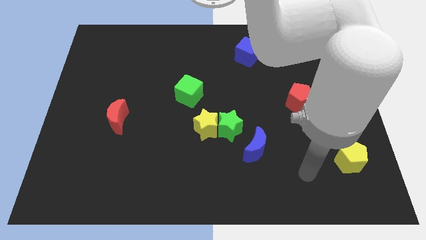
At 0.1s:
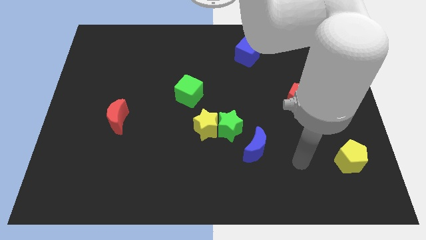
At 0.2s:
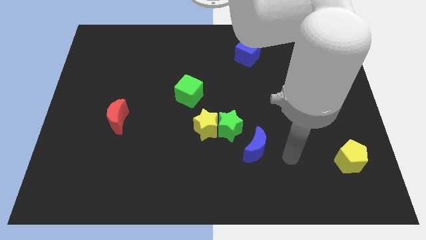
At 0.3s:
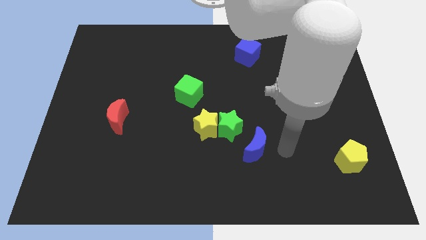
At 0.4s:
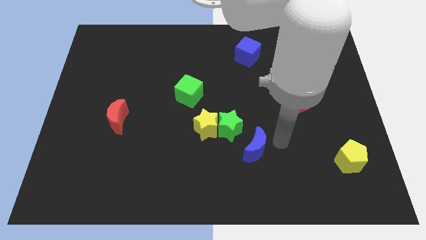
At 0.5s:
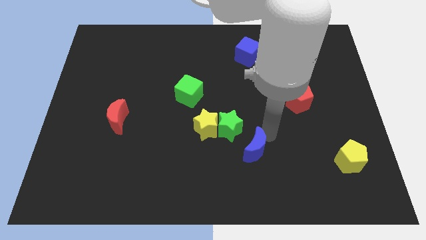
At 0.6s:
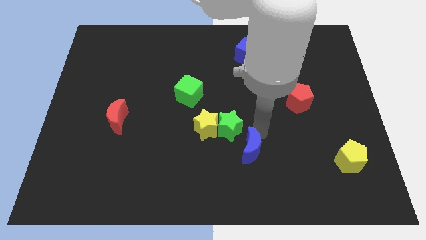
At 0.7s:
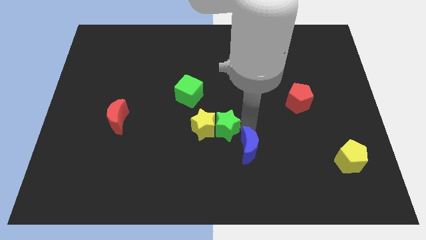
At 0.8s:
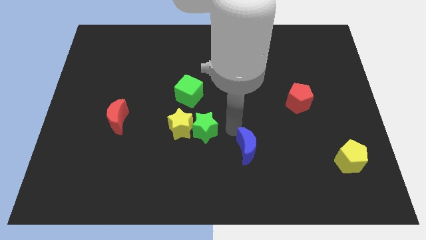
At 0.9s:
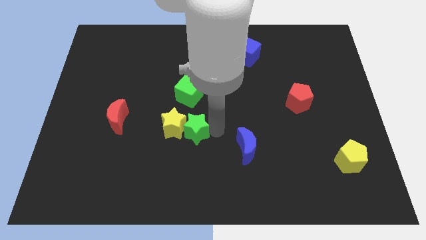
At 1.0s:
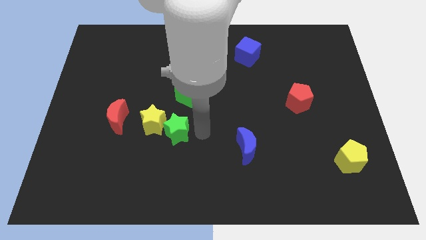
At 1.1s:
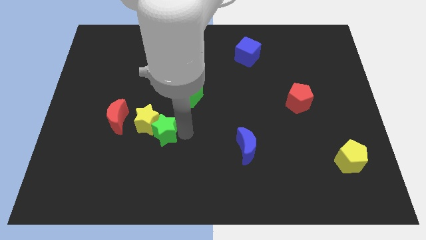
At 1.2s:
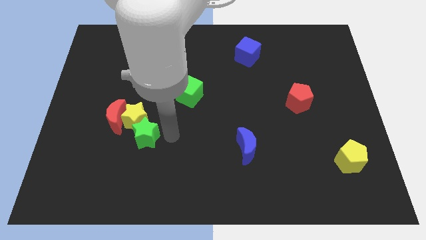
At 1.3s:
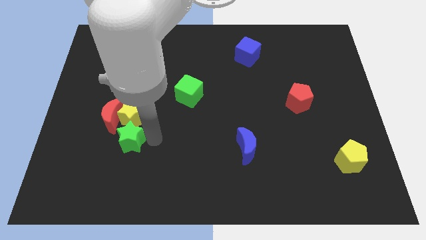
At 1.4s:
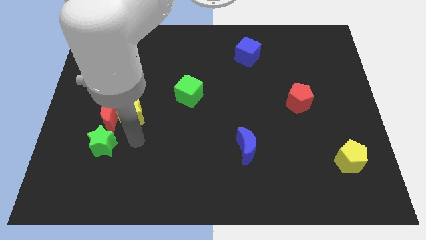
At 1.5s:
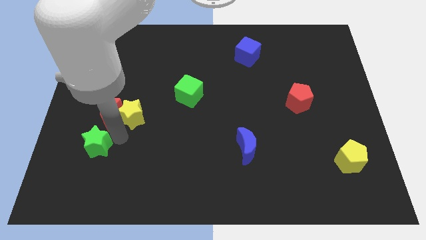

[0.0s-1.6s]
move the yellow star away from the green star

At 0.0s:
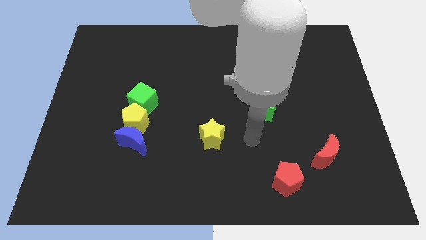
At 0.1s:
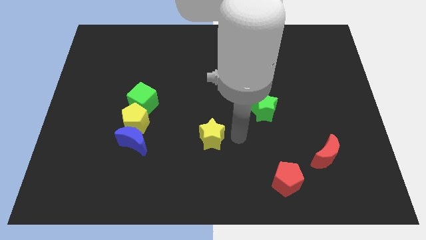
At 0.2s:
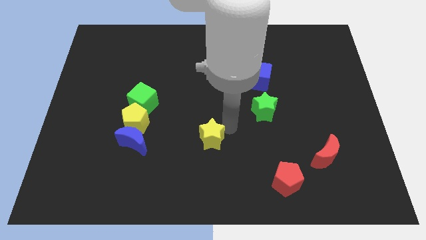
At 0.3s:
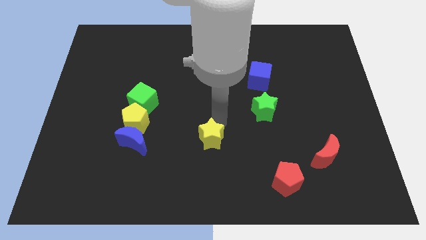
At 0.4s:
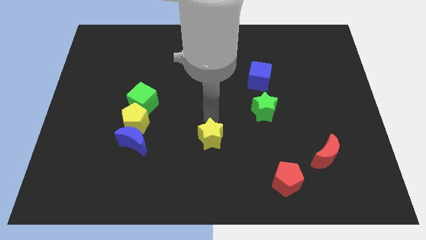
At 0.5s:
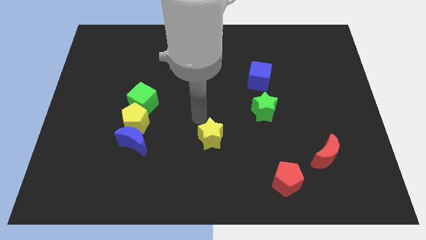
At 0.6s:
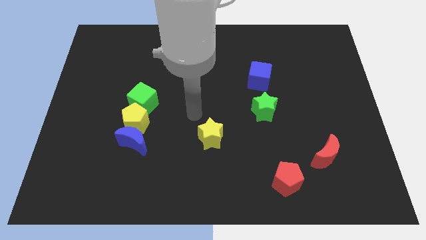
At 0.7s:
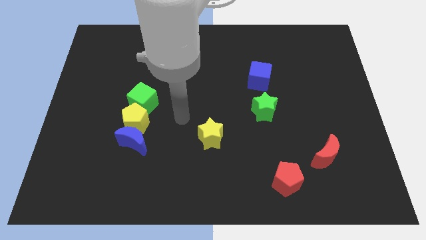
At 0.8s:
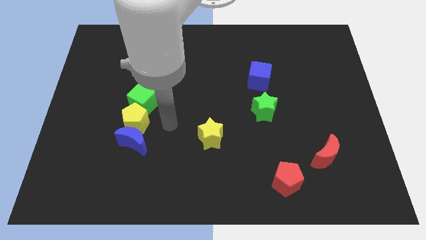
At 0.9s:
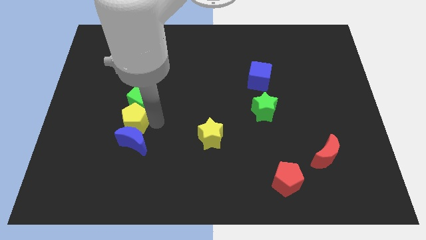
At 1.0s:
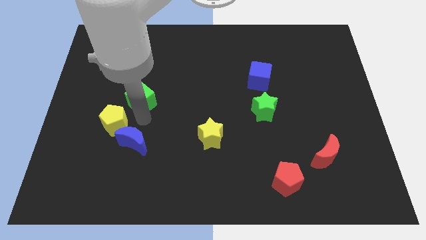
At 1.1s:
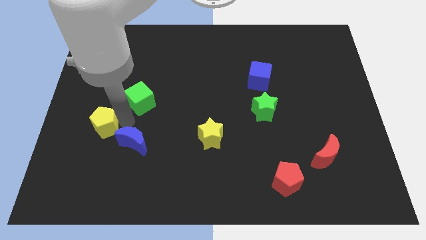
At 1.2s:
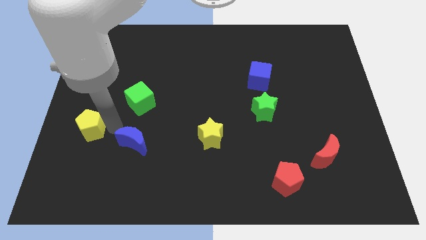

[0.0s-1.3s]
move the blue moon away from the yellow pentagon

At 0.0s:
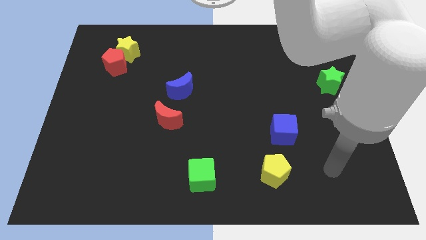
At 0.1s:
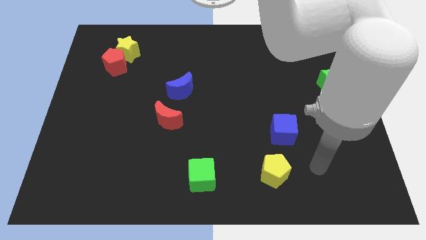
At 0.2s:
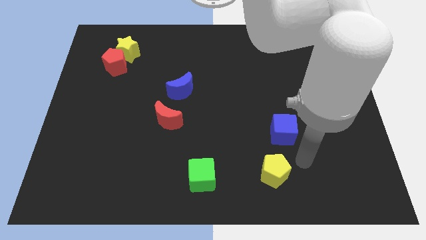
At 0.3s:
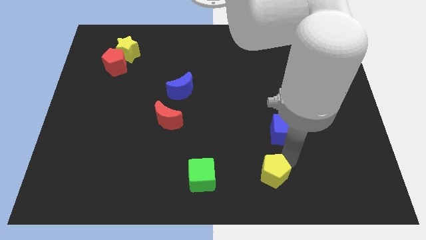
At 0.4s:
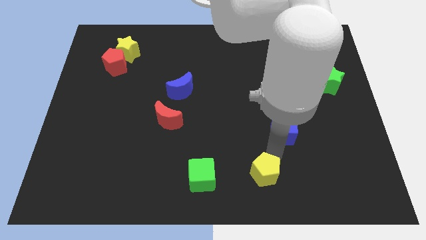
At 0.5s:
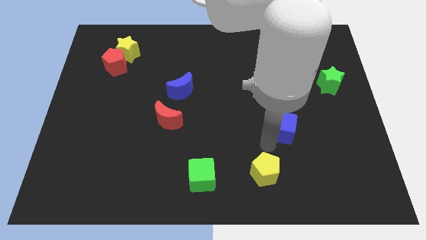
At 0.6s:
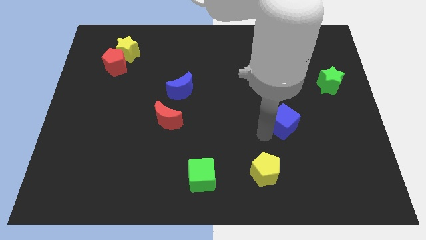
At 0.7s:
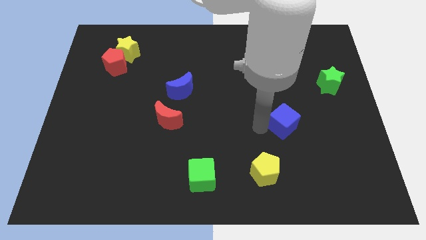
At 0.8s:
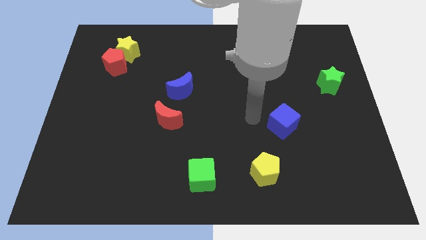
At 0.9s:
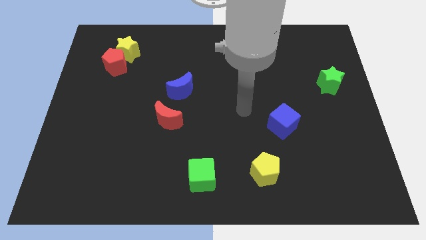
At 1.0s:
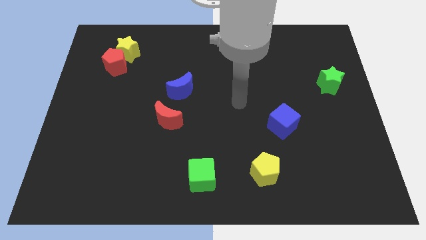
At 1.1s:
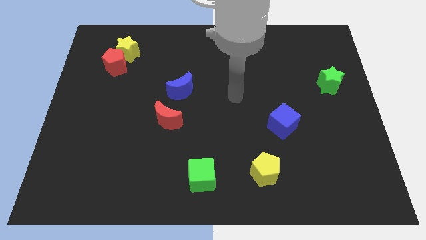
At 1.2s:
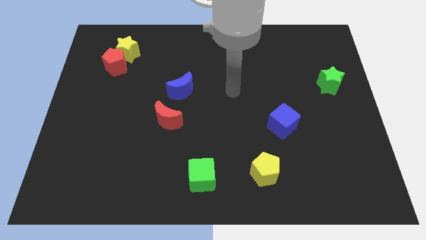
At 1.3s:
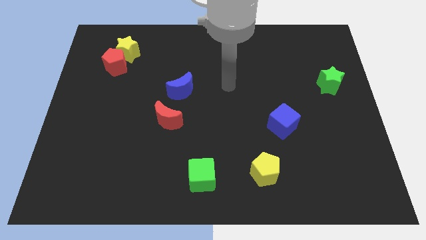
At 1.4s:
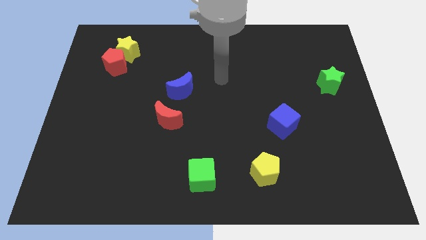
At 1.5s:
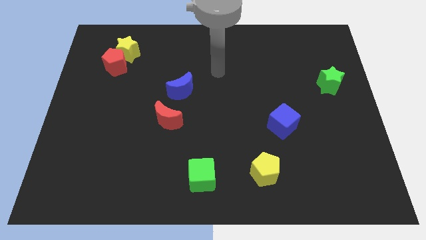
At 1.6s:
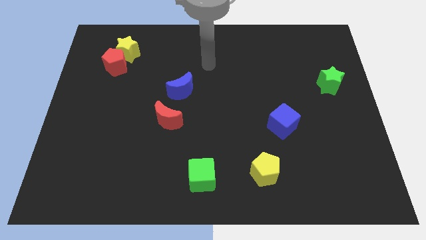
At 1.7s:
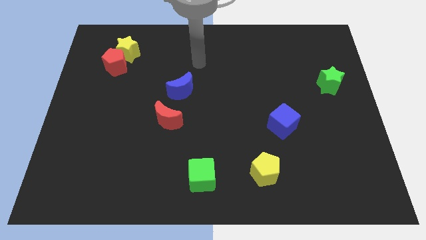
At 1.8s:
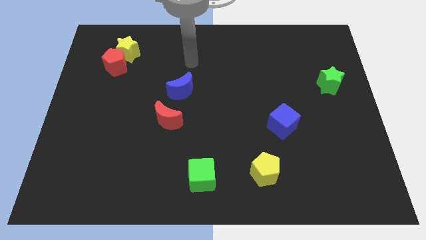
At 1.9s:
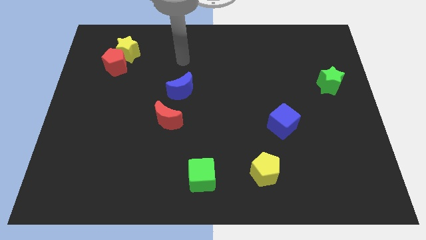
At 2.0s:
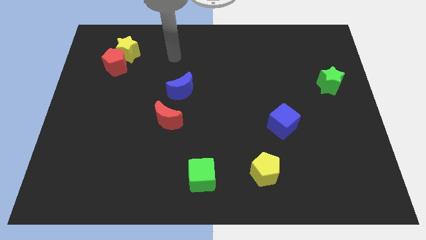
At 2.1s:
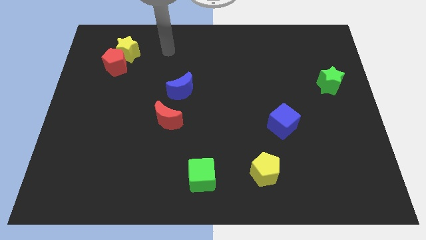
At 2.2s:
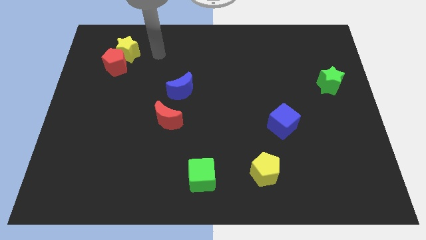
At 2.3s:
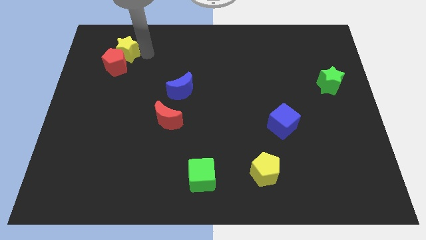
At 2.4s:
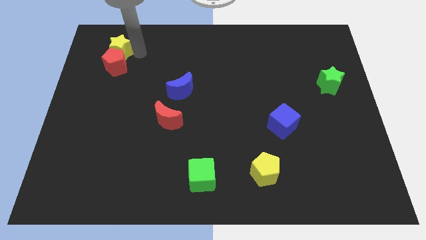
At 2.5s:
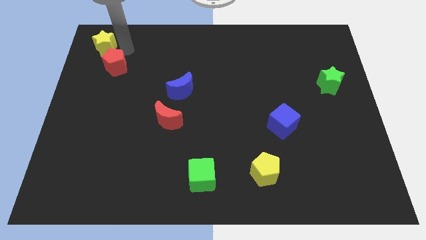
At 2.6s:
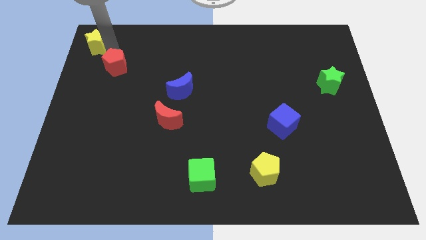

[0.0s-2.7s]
move the red pentagon away from the yellow star

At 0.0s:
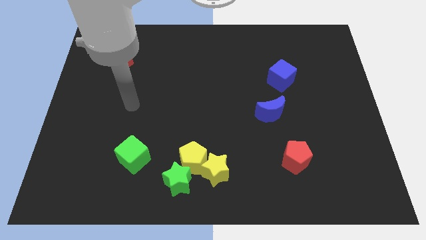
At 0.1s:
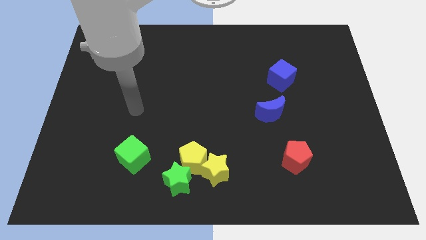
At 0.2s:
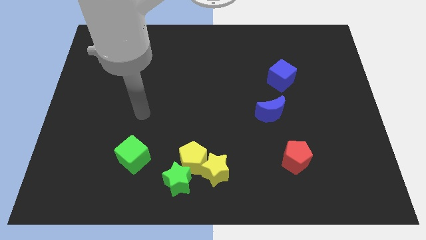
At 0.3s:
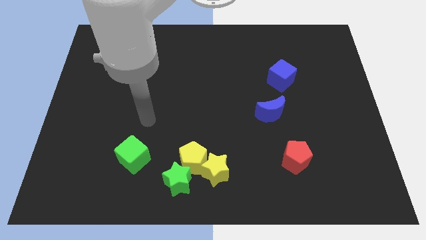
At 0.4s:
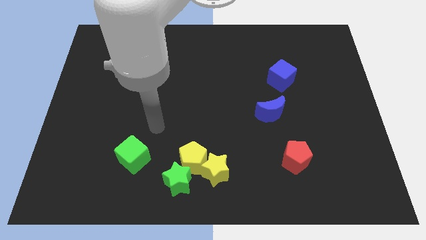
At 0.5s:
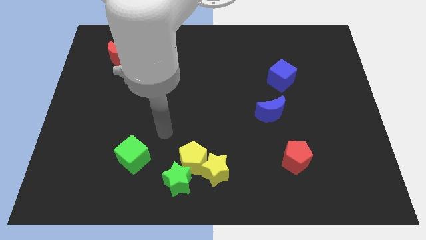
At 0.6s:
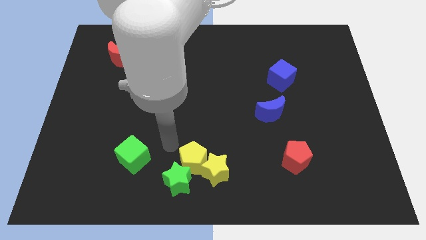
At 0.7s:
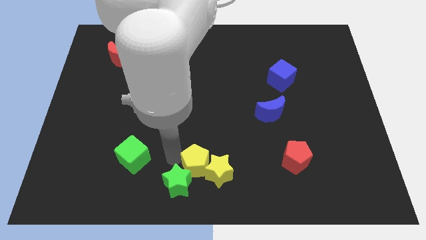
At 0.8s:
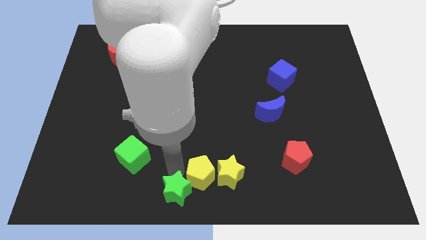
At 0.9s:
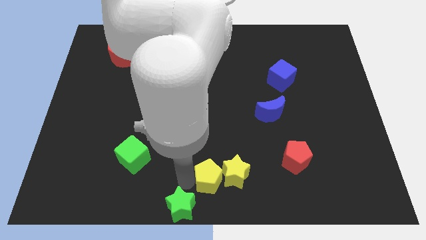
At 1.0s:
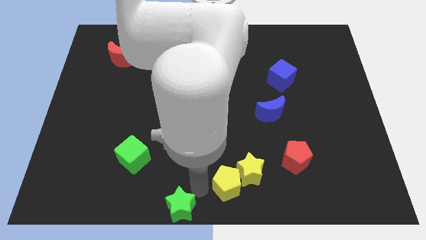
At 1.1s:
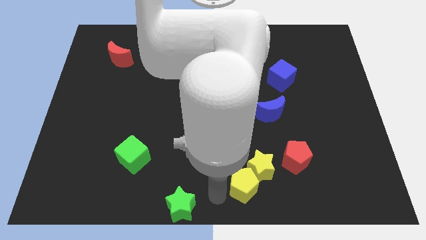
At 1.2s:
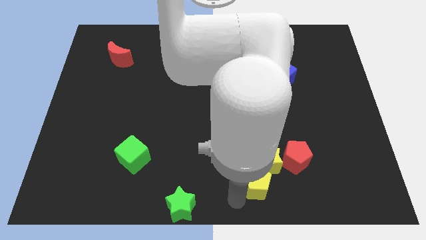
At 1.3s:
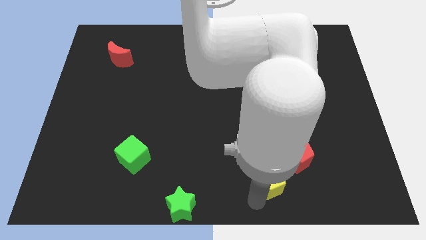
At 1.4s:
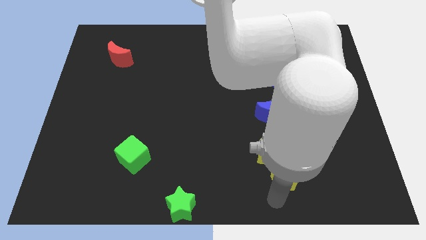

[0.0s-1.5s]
pull the yellow pentagon apart from the yellow star and green star

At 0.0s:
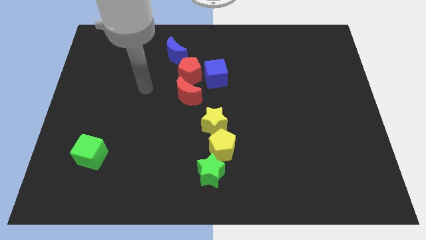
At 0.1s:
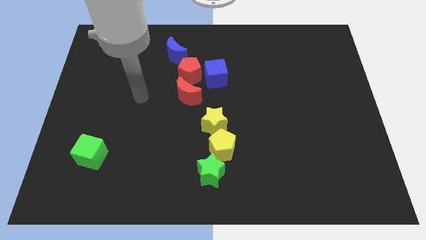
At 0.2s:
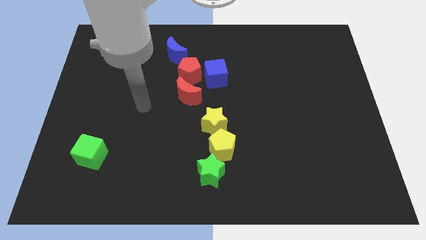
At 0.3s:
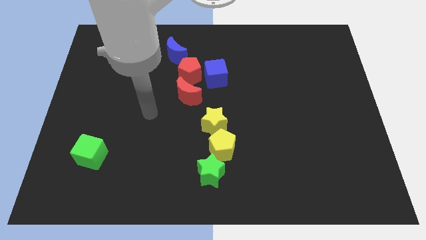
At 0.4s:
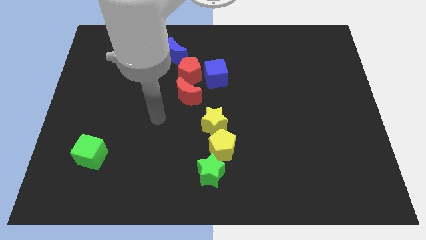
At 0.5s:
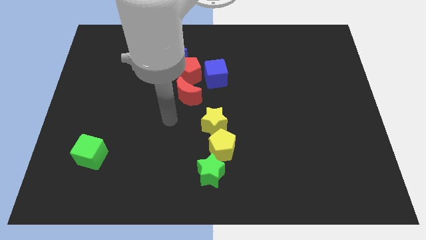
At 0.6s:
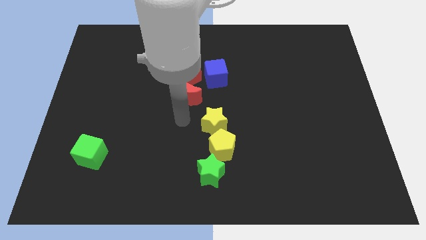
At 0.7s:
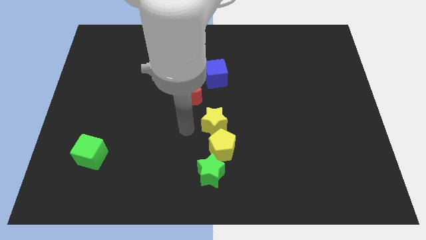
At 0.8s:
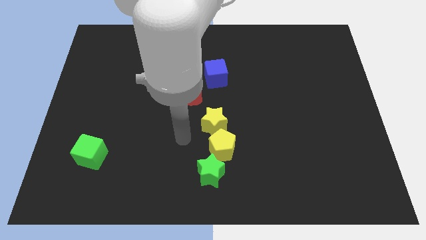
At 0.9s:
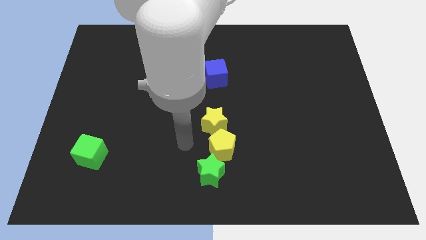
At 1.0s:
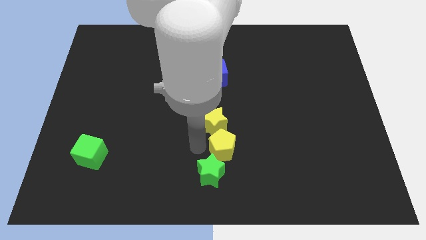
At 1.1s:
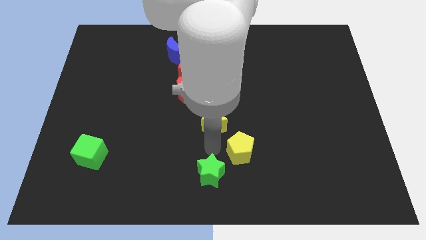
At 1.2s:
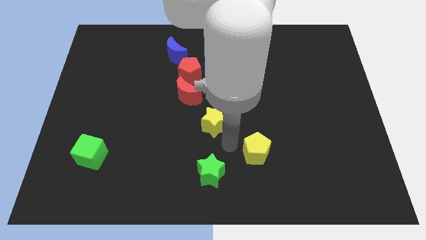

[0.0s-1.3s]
separate the yellow star from the yellow pentagon

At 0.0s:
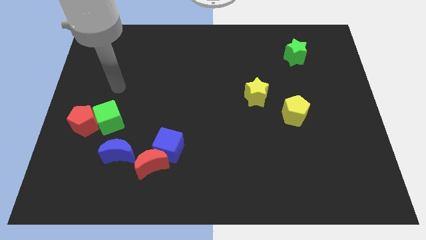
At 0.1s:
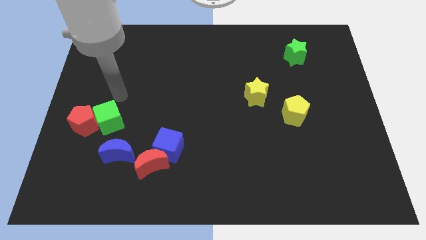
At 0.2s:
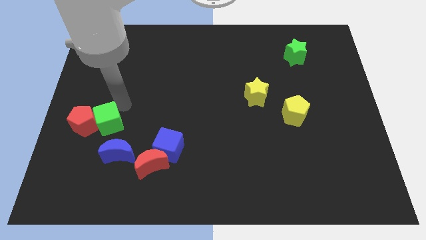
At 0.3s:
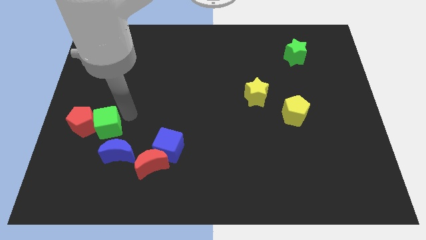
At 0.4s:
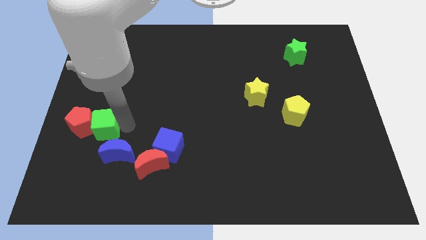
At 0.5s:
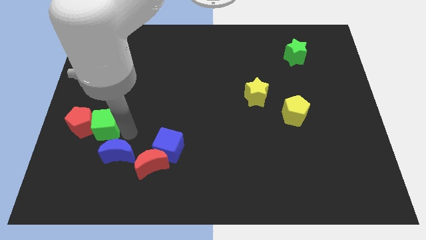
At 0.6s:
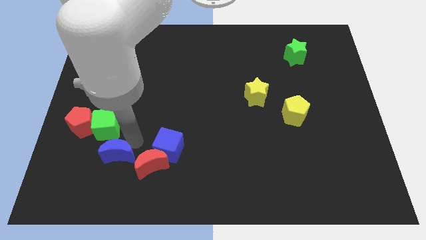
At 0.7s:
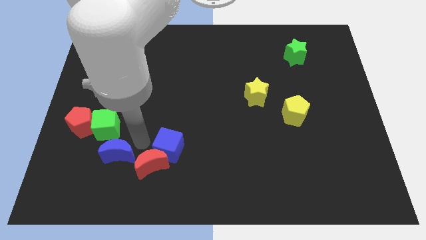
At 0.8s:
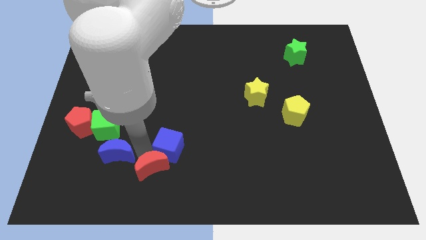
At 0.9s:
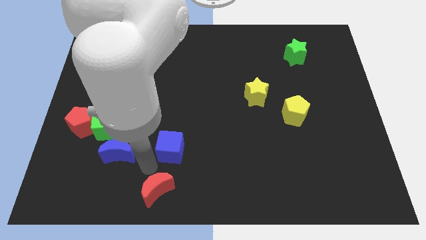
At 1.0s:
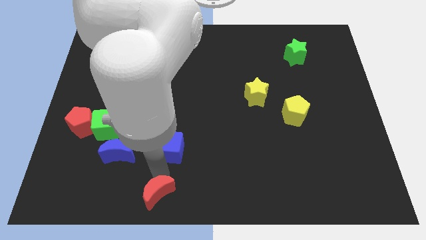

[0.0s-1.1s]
pull the blue cube apart from the red moon
